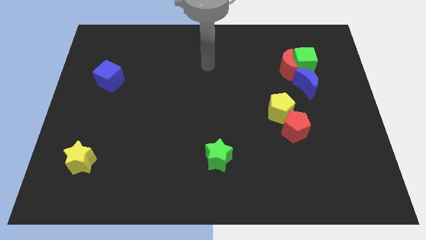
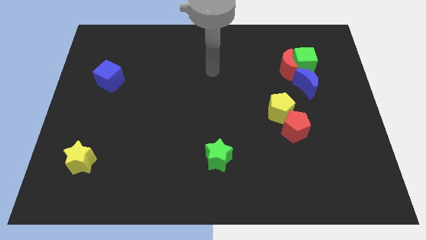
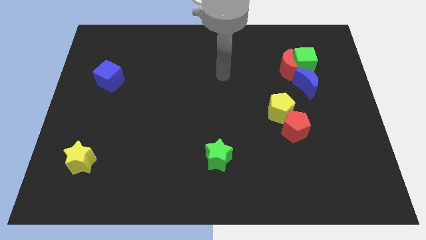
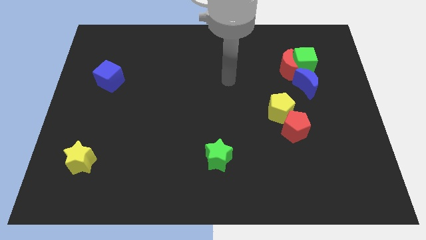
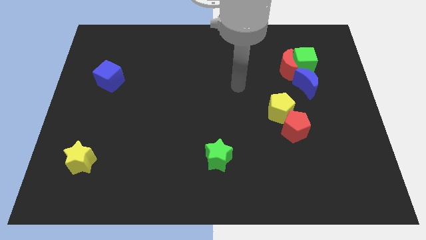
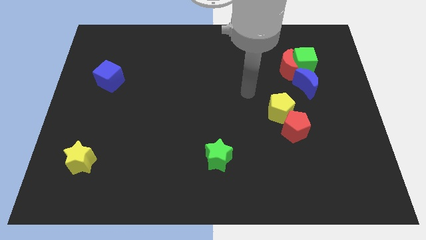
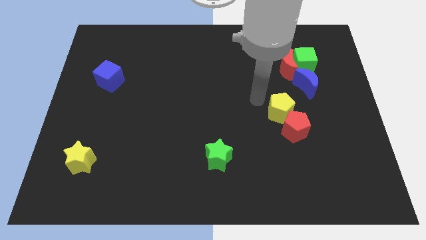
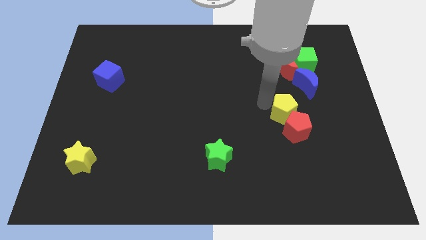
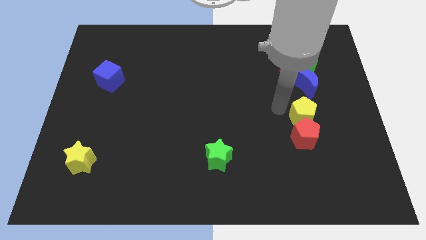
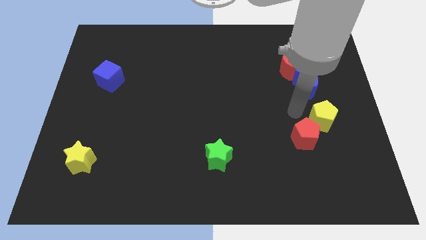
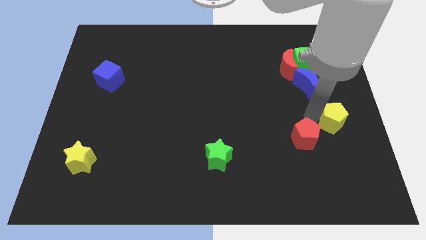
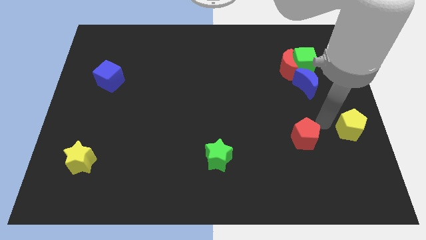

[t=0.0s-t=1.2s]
separate the red pentagon from the yellow pentagon

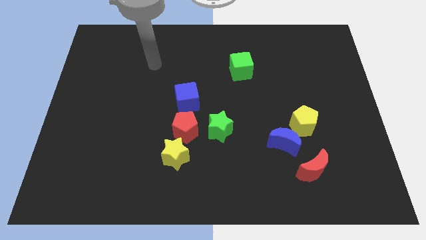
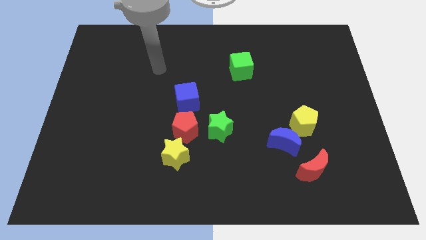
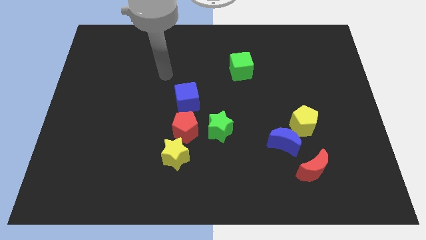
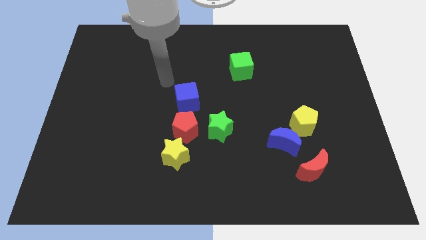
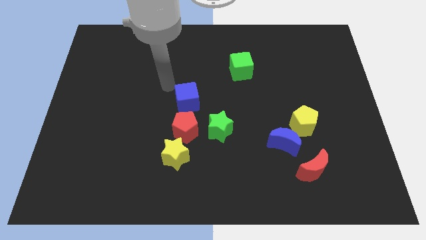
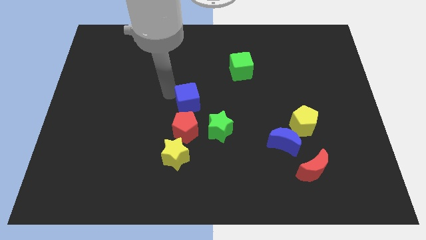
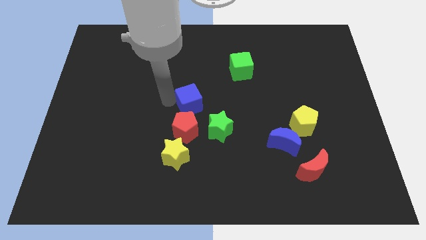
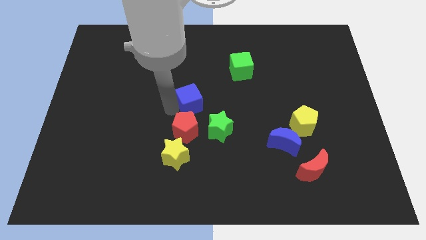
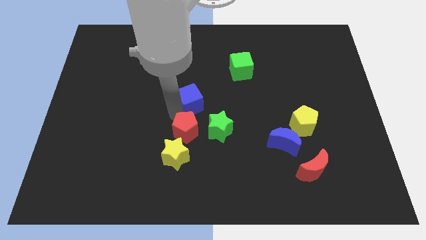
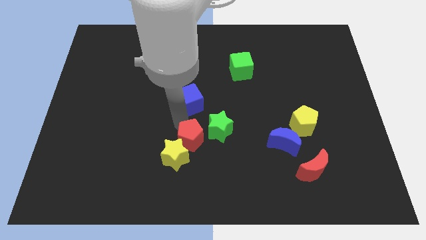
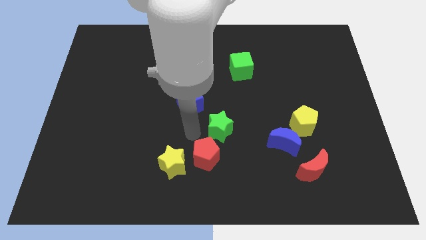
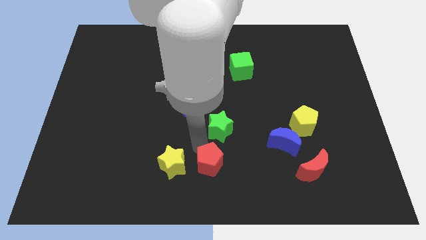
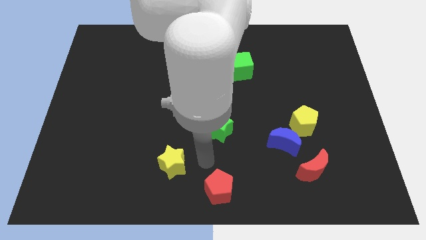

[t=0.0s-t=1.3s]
move the yellow star away from the red pentagon

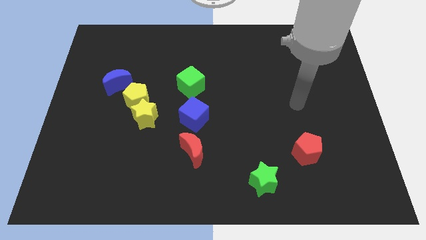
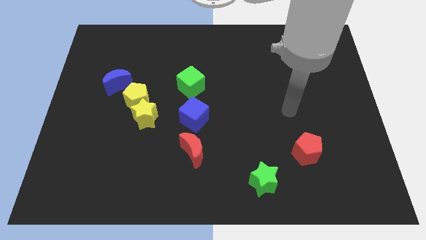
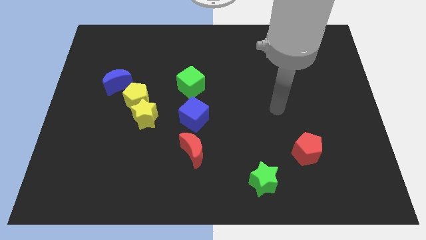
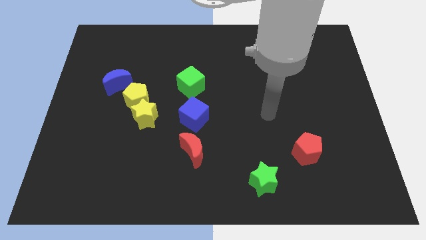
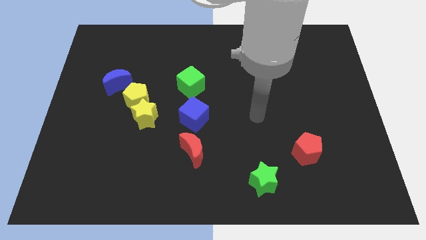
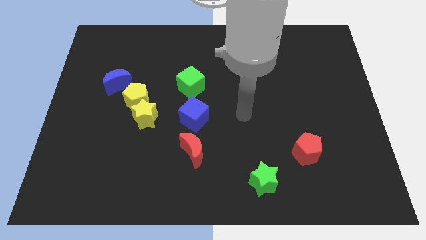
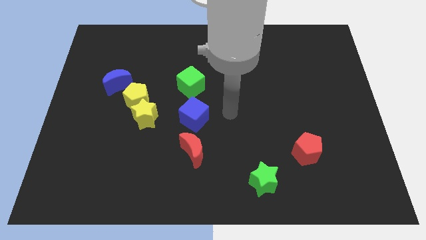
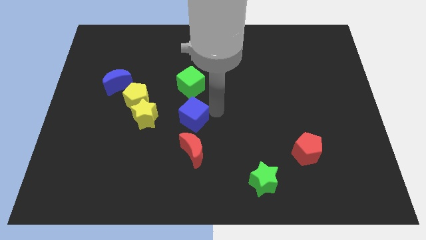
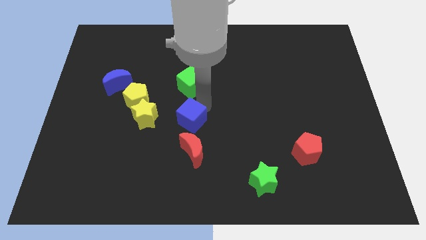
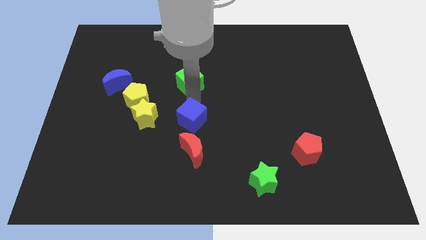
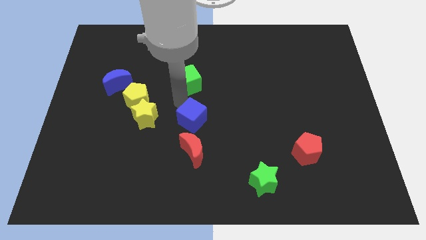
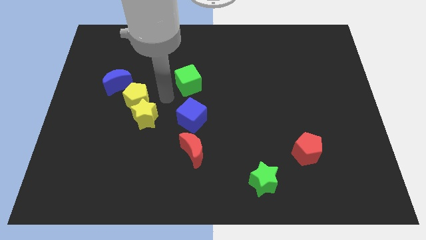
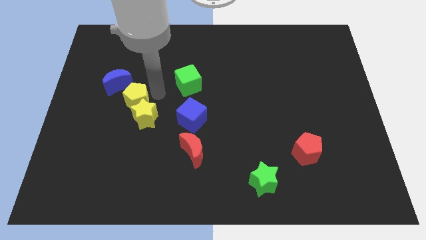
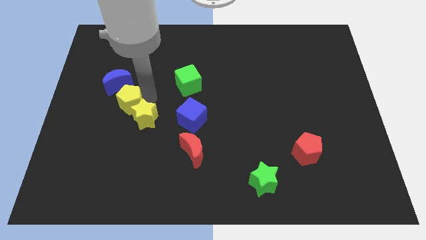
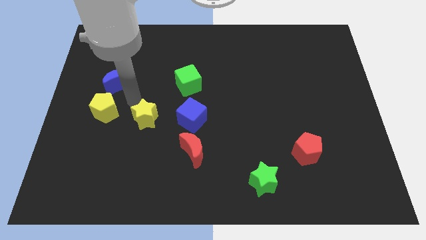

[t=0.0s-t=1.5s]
separate the yellow star from the yellow pentagon

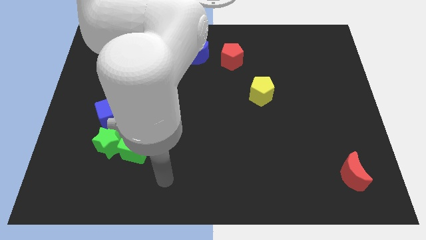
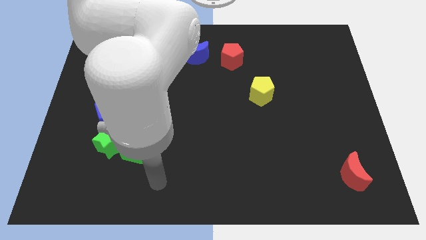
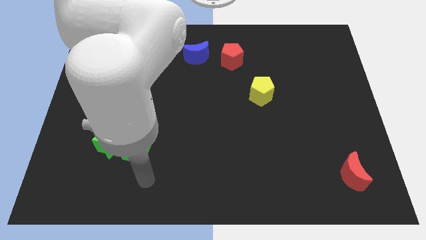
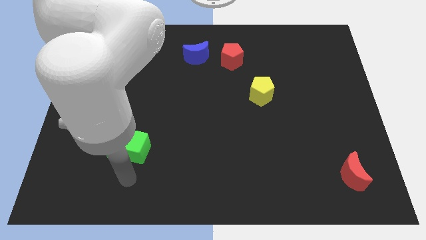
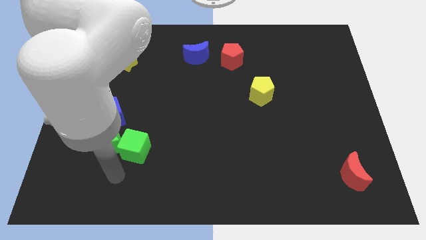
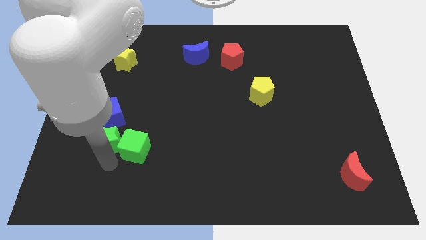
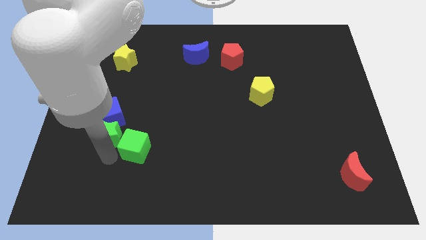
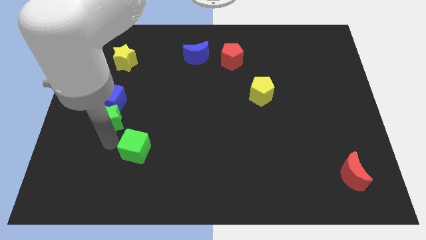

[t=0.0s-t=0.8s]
move the green cube away from the green star

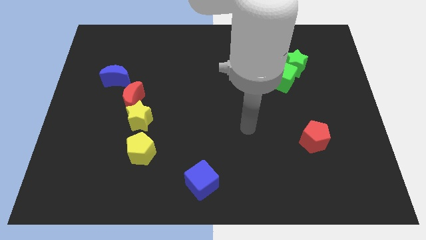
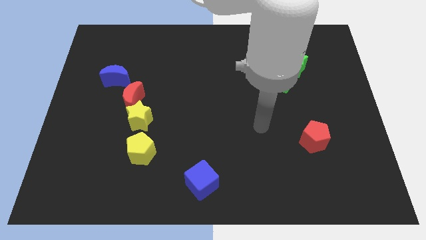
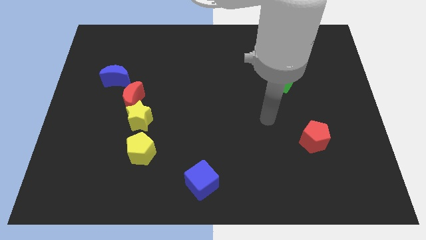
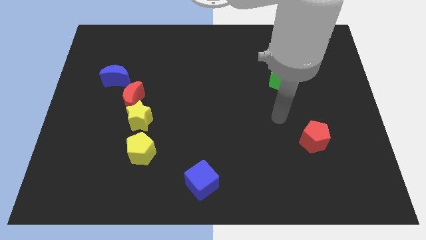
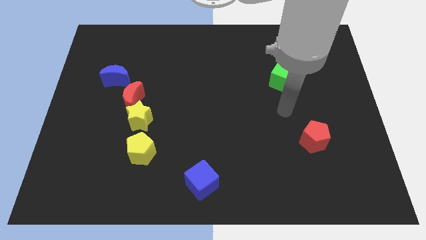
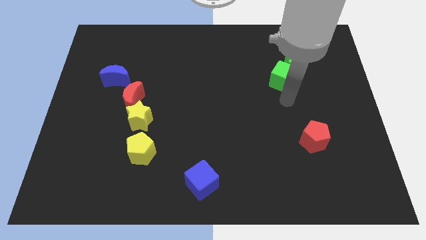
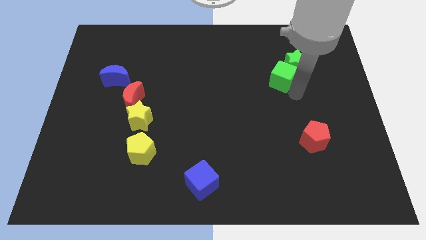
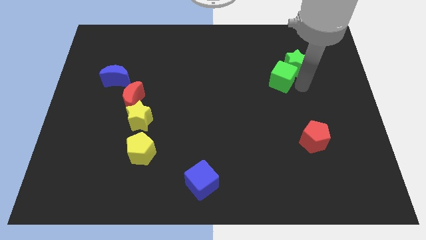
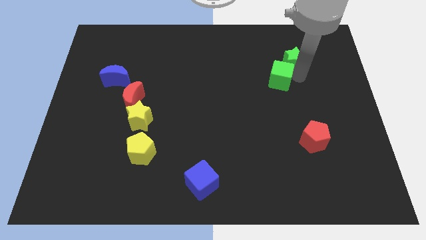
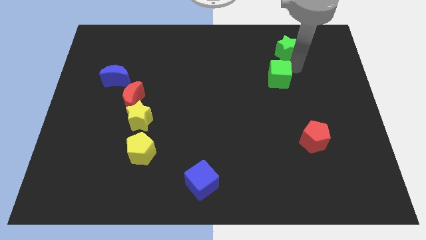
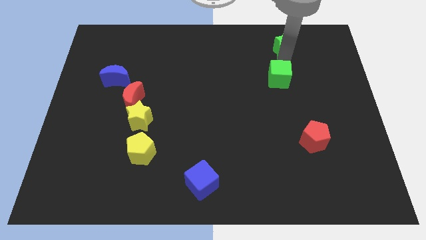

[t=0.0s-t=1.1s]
pull the green cube apart from the green star

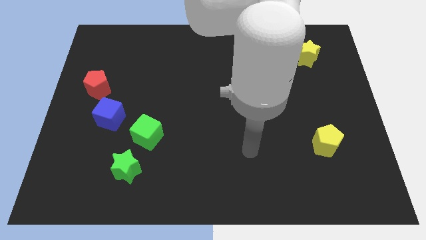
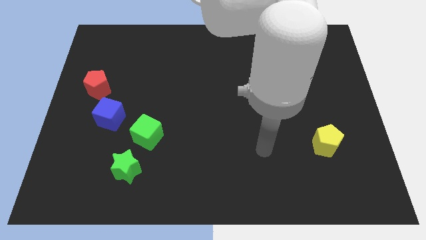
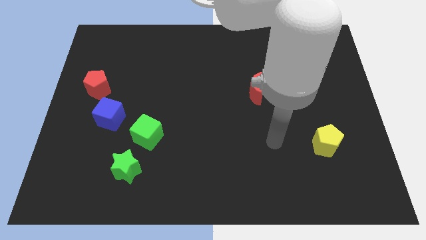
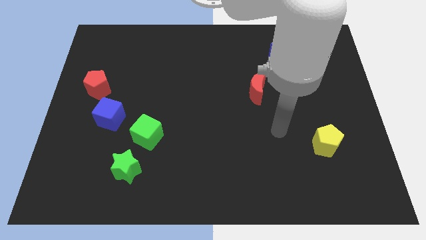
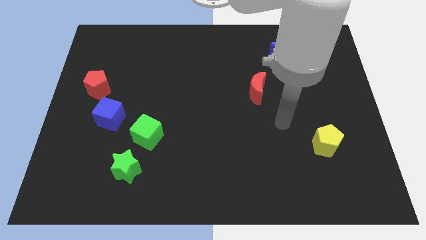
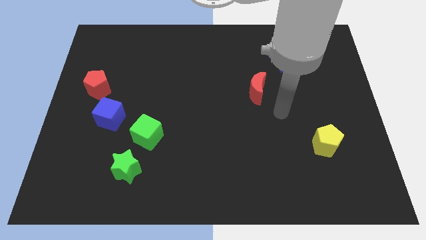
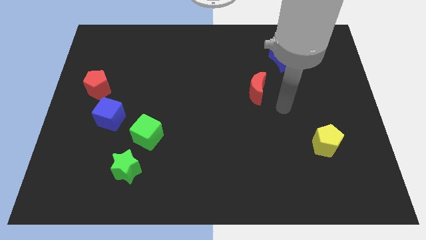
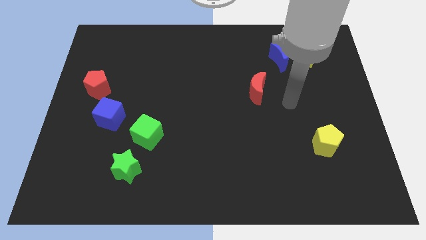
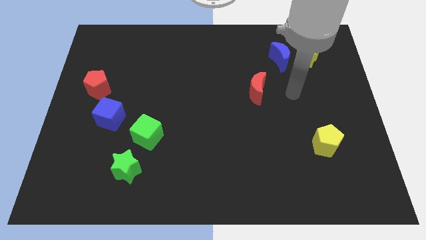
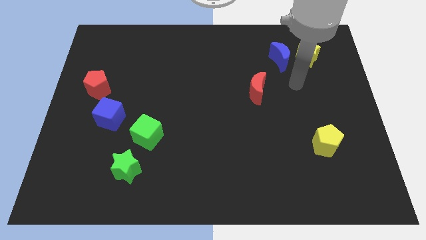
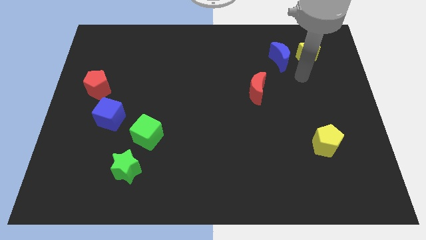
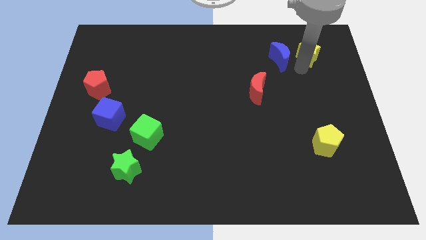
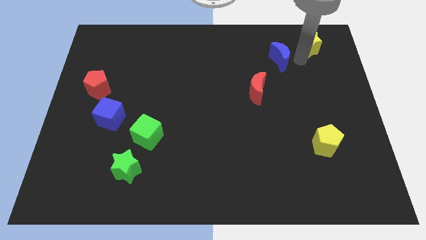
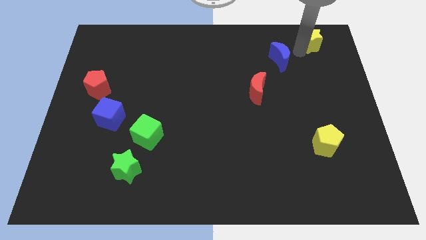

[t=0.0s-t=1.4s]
move the blue moon away from the yellow star

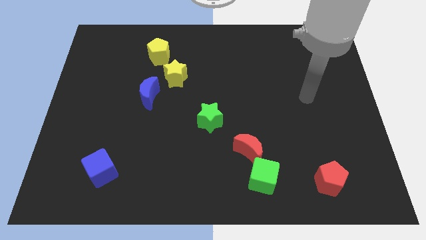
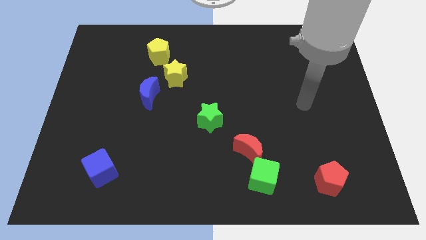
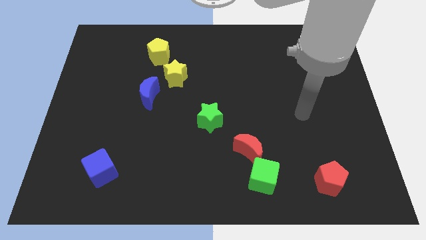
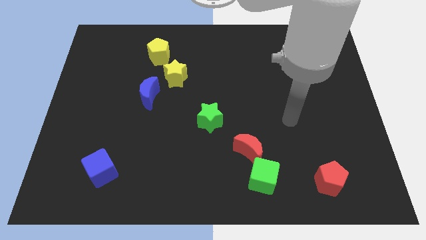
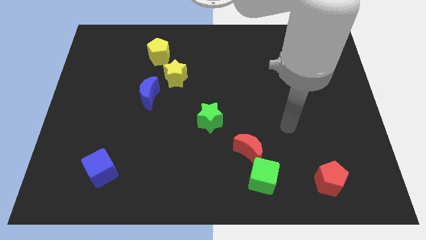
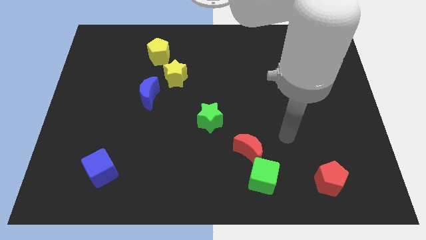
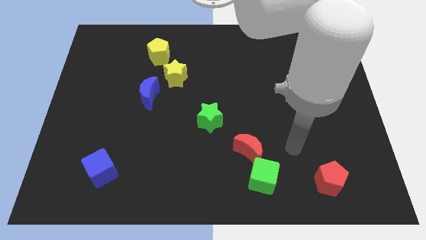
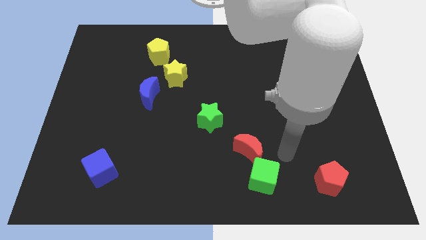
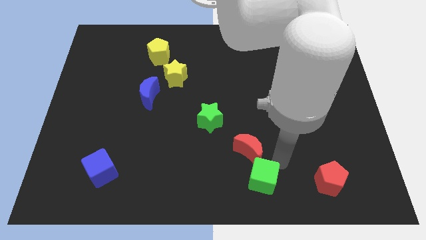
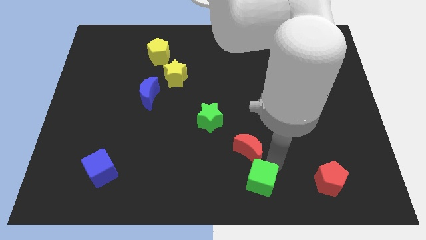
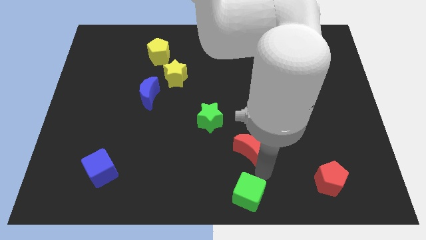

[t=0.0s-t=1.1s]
pull the red moon apart from the green cube

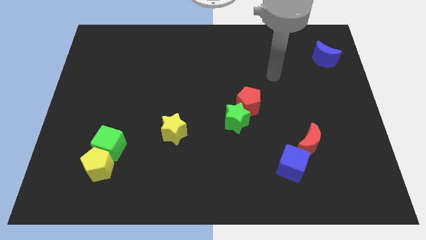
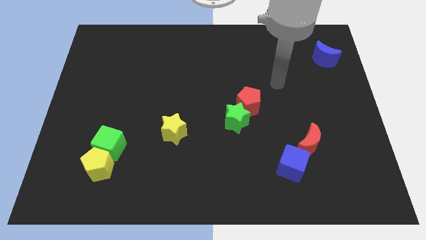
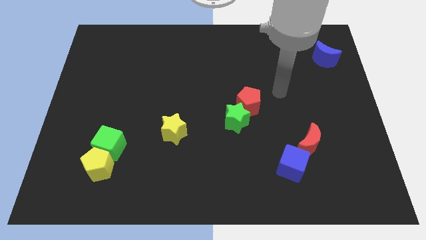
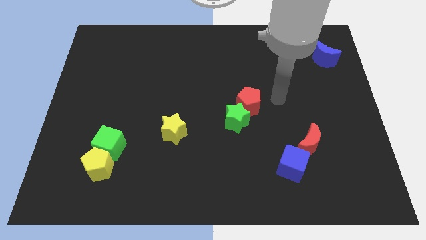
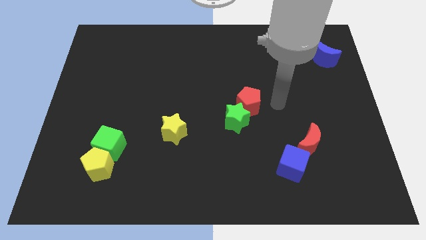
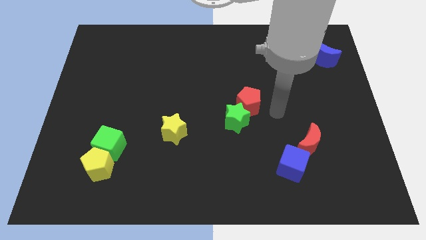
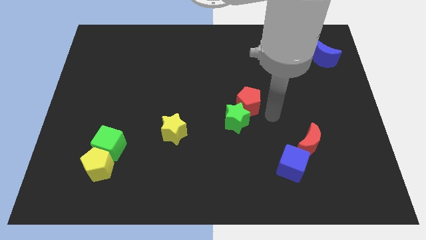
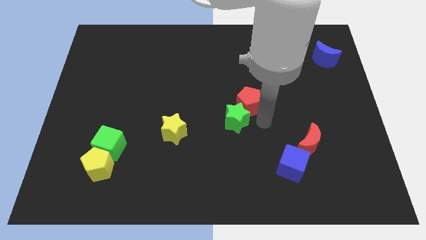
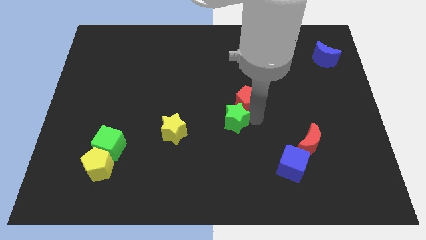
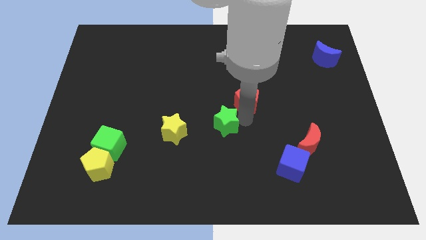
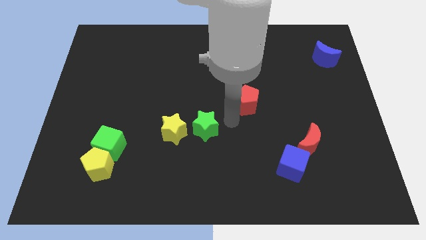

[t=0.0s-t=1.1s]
pull the red pentagon apart from the green star
